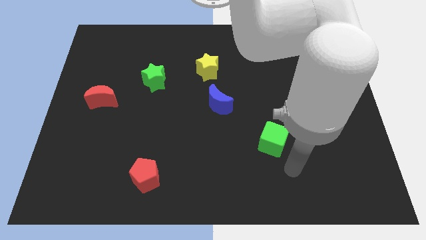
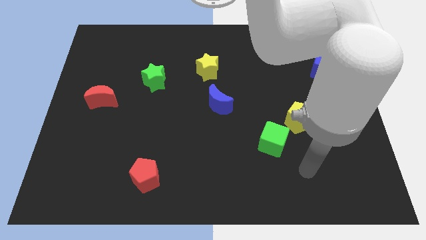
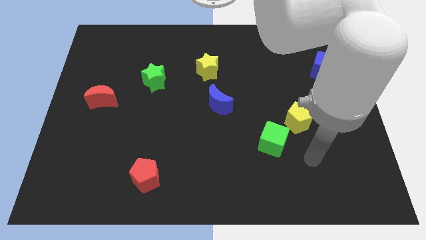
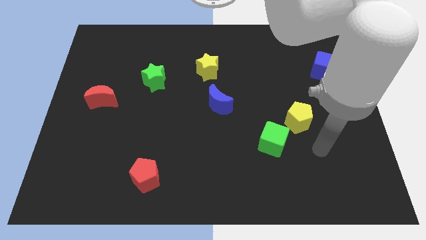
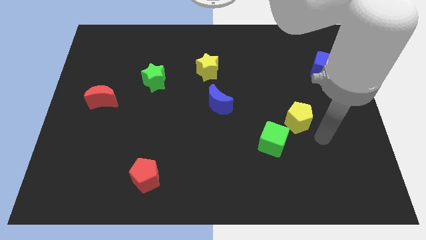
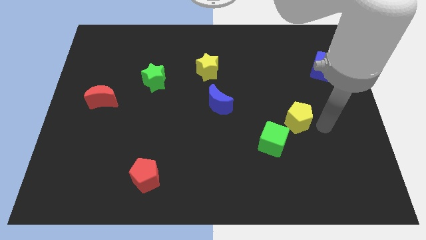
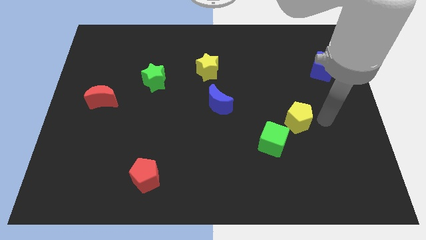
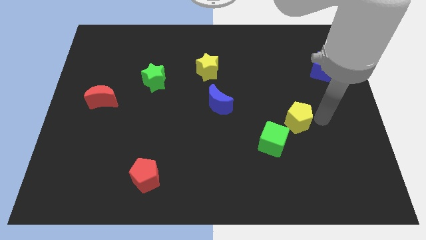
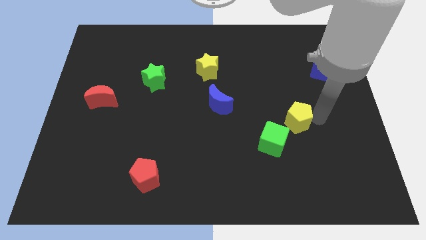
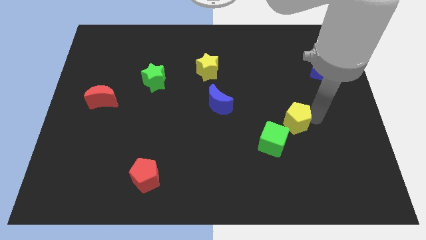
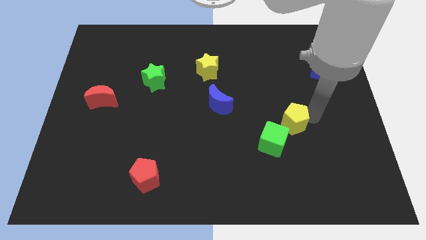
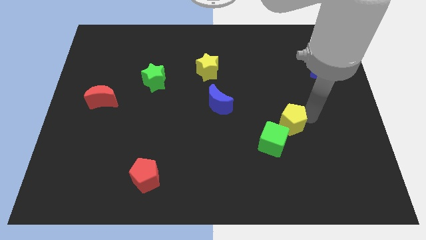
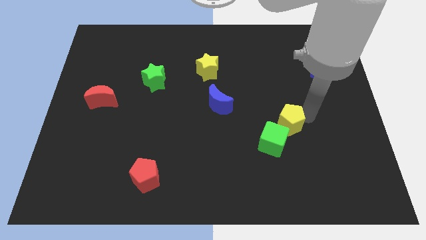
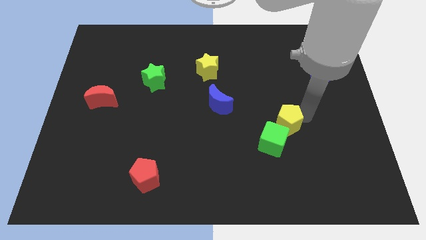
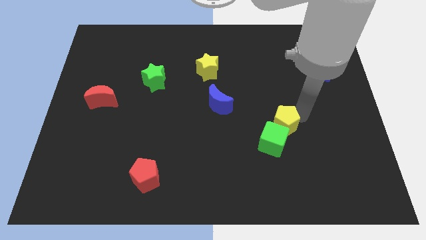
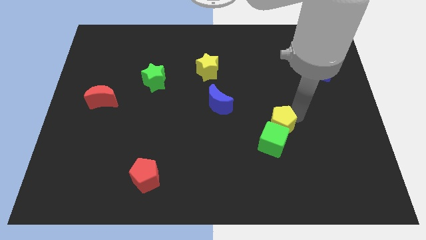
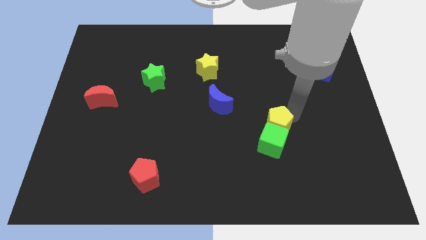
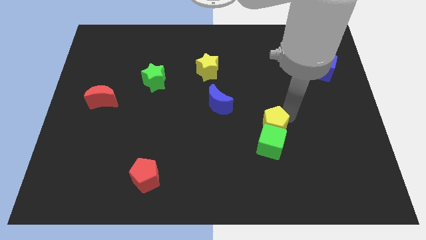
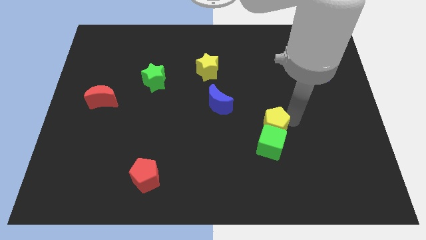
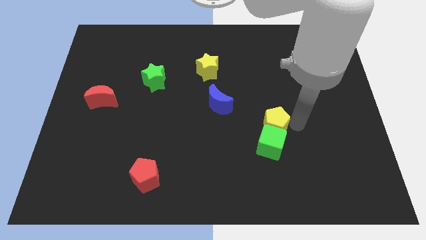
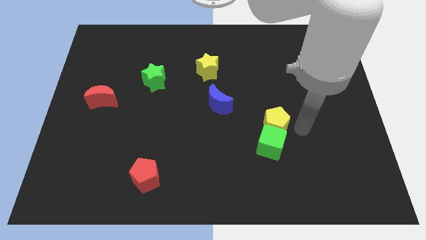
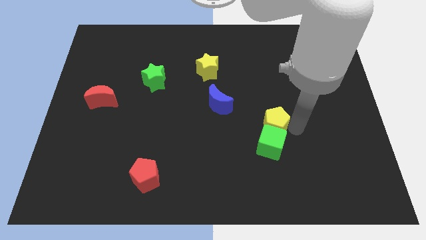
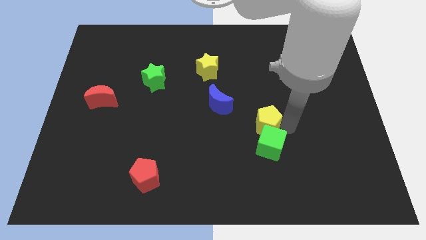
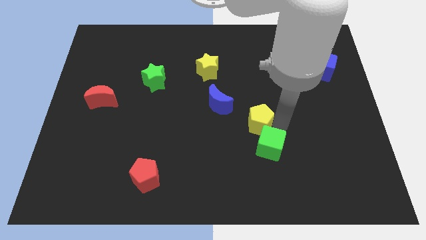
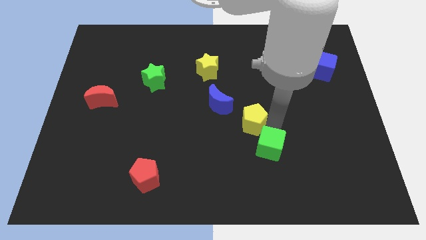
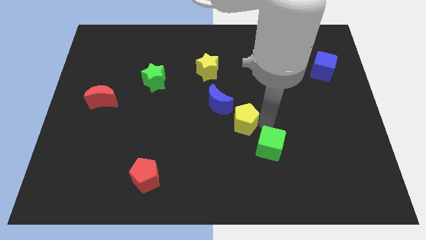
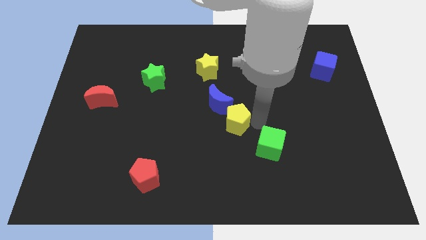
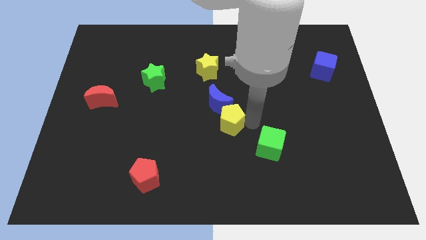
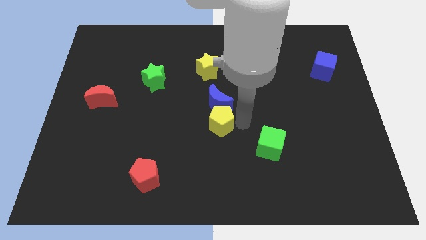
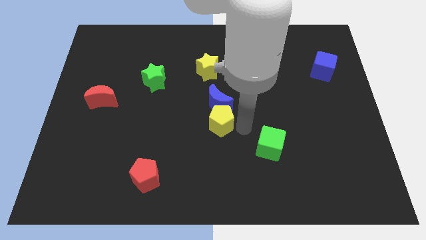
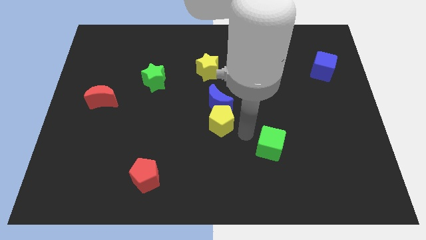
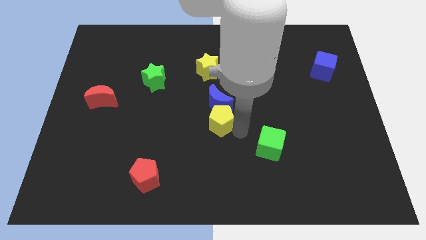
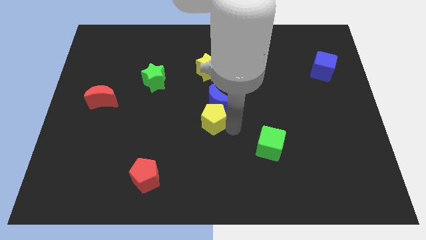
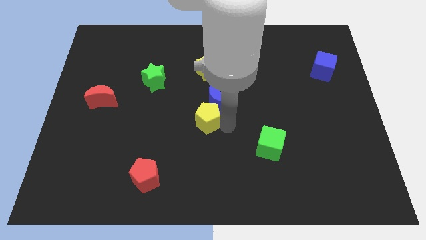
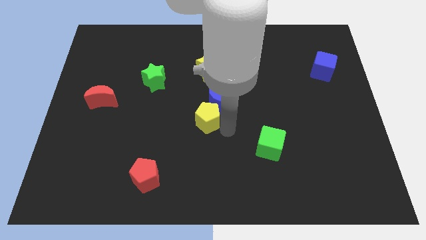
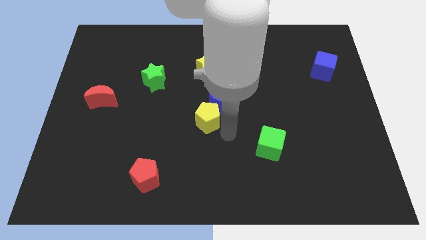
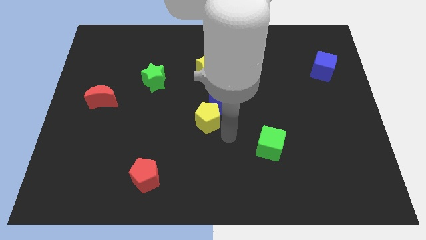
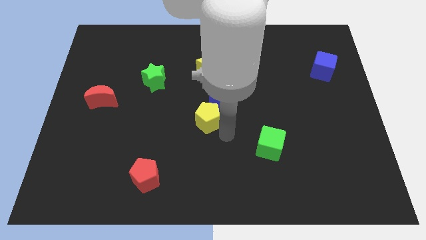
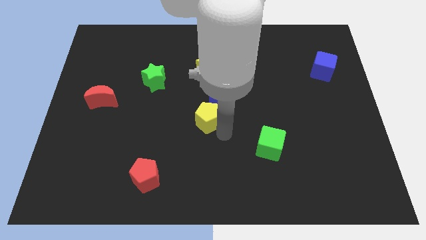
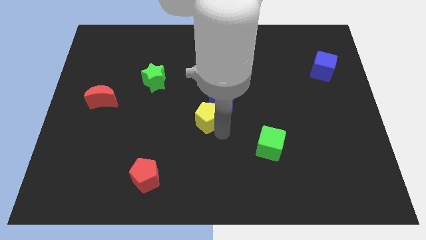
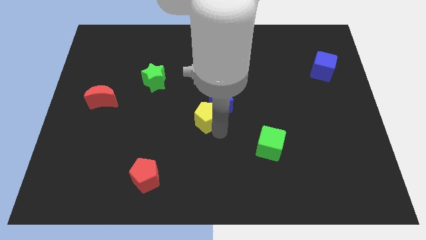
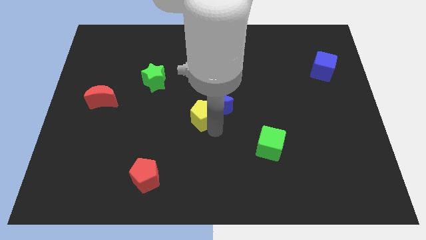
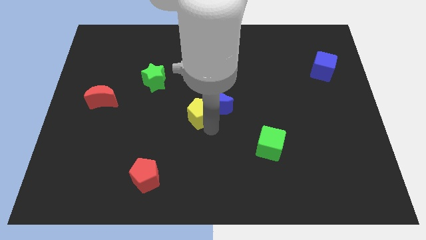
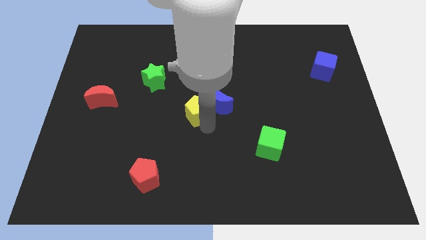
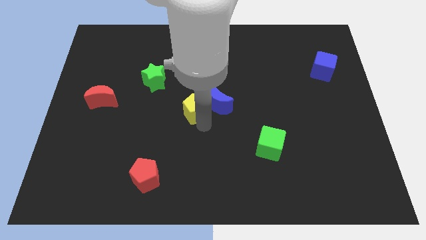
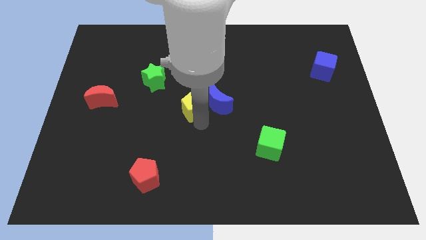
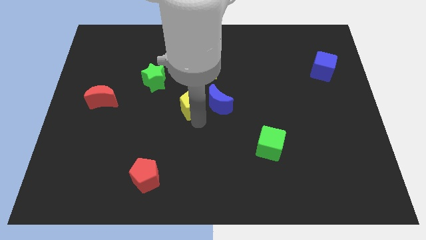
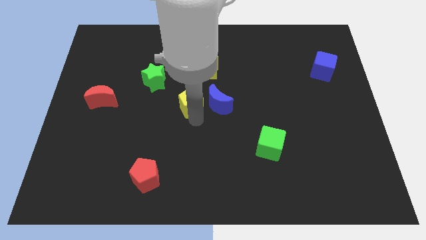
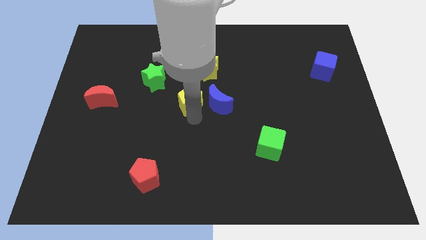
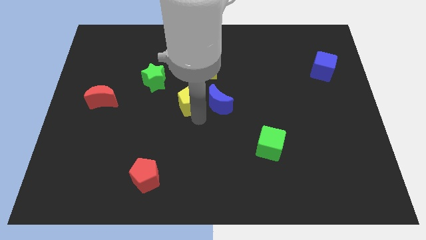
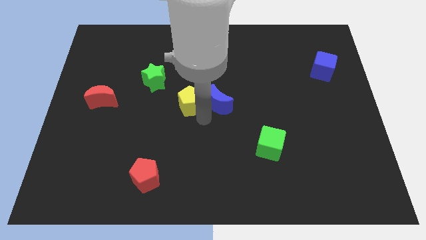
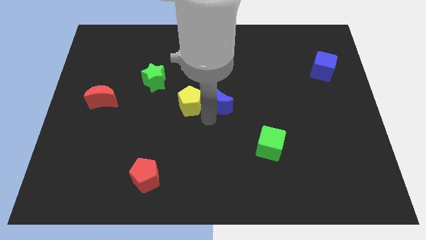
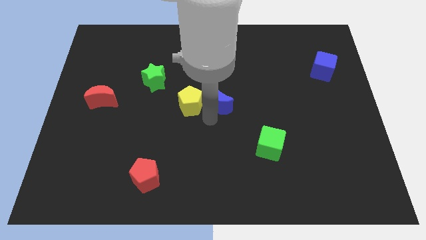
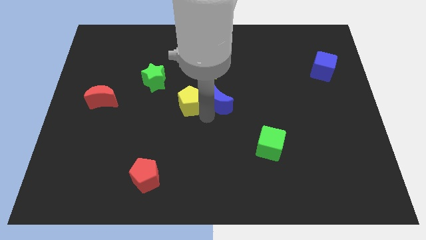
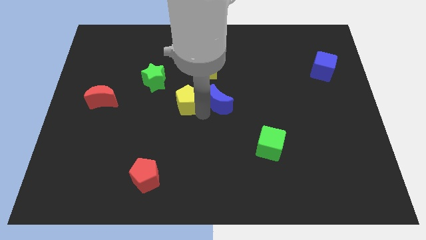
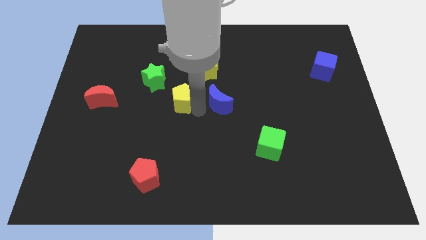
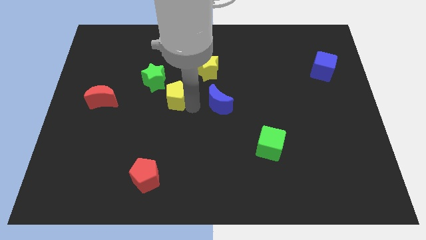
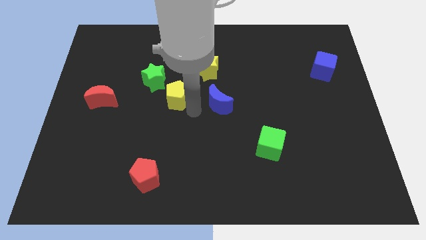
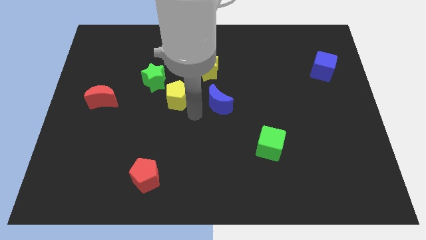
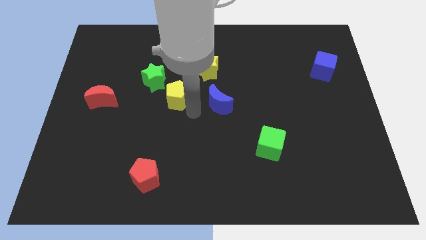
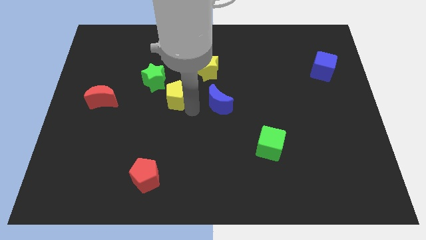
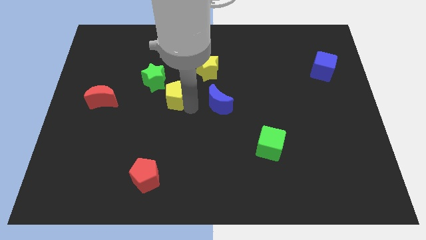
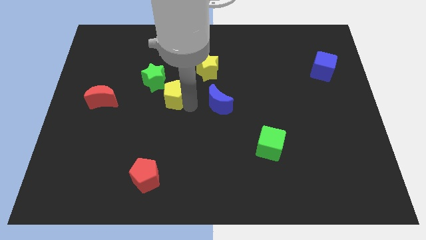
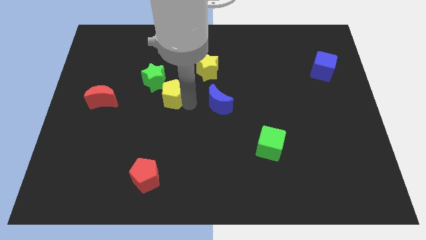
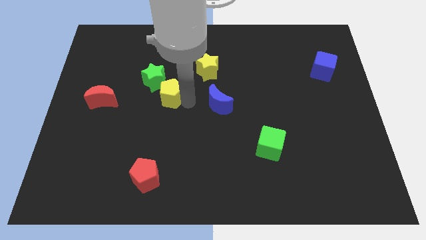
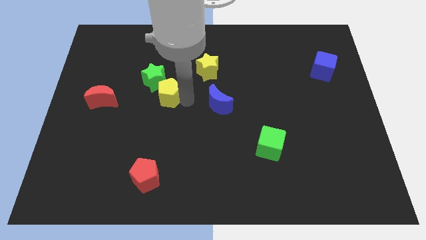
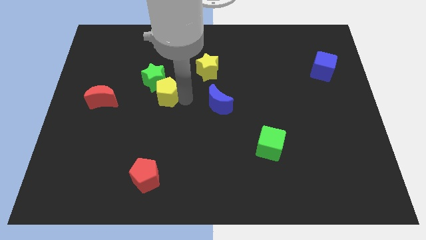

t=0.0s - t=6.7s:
slide the yellow pentagon next to the green star

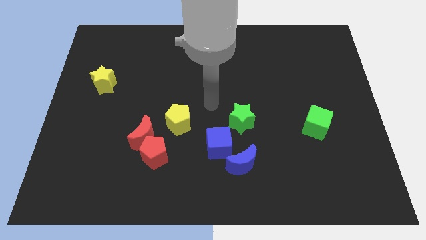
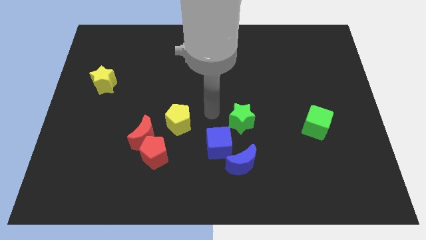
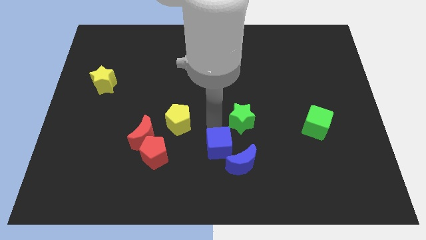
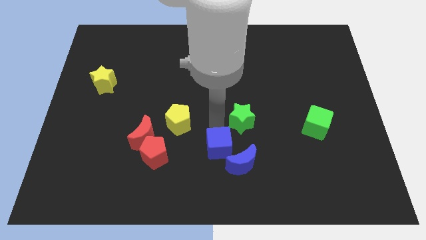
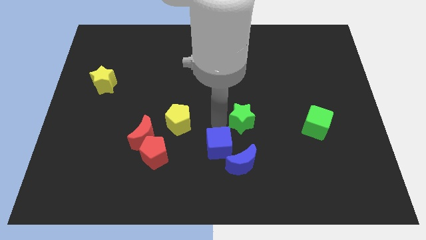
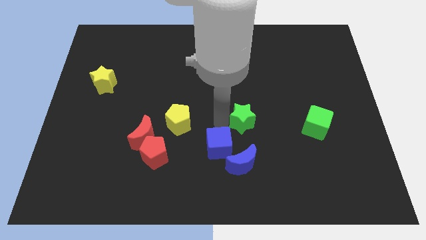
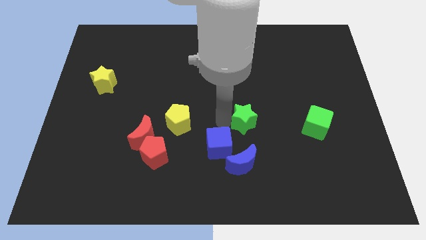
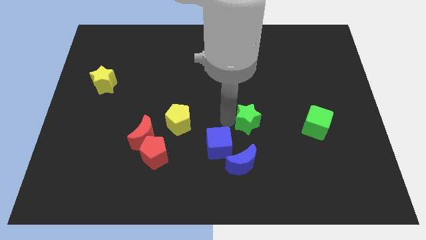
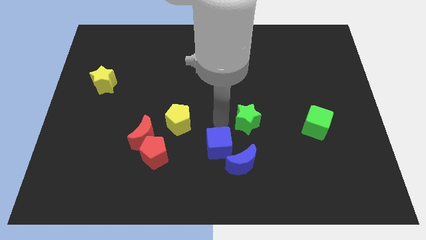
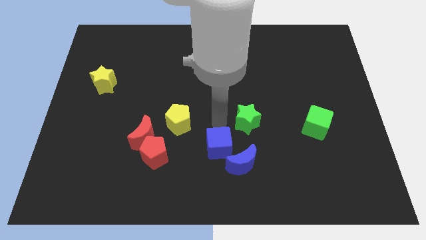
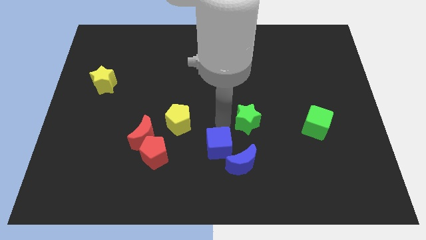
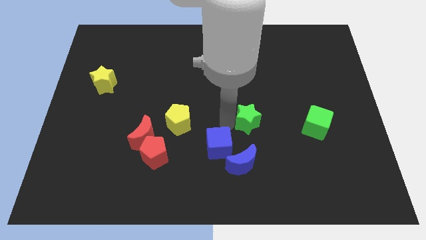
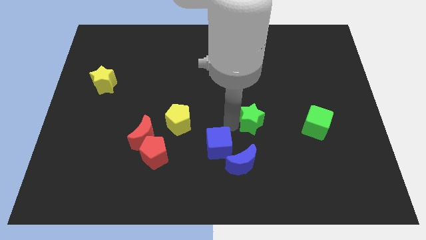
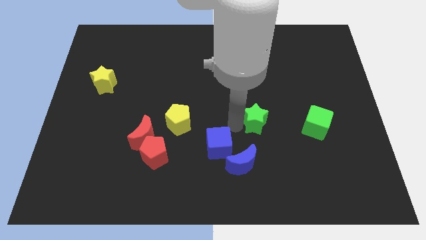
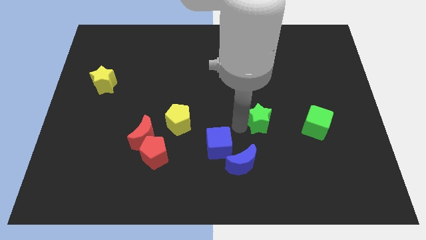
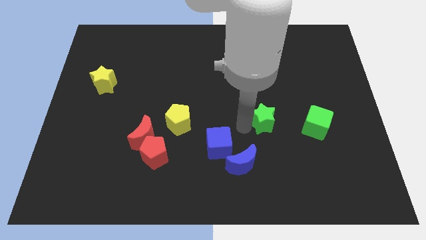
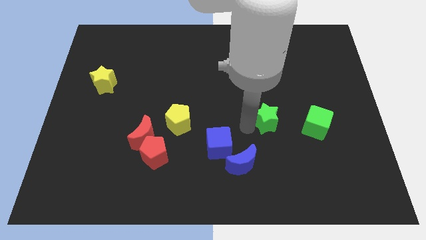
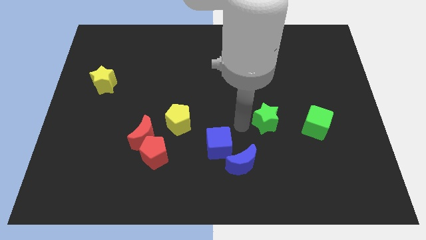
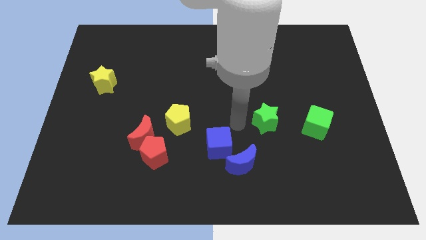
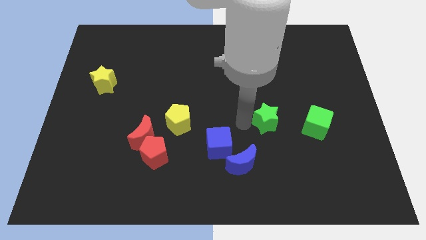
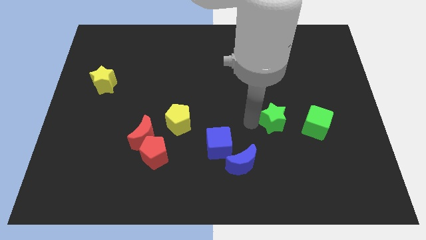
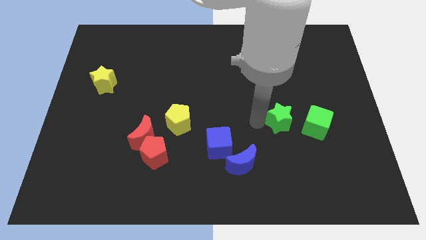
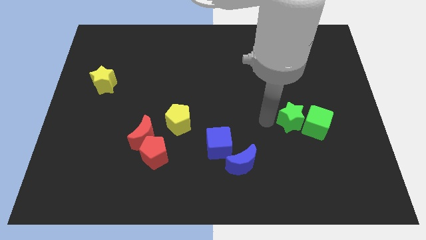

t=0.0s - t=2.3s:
put the green star to the green cube
